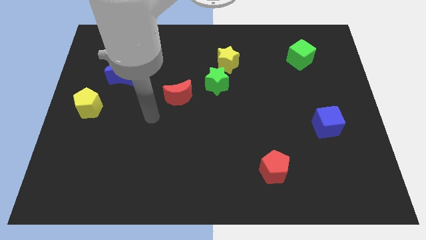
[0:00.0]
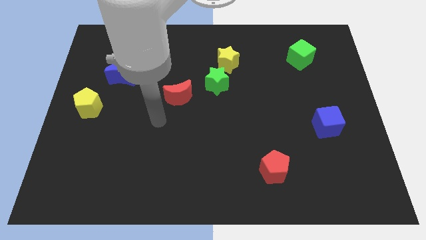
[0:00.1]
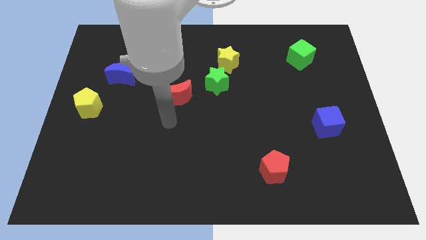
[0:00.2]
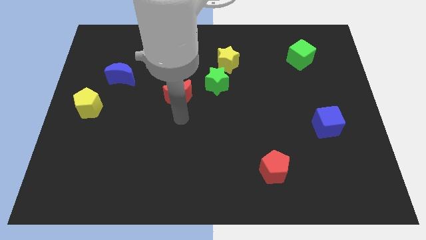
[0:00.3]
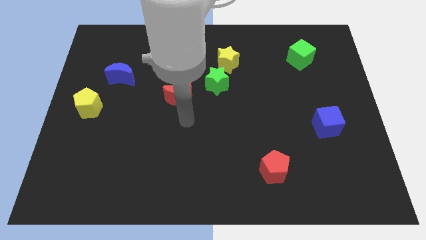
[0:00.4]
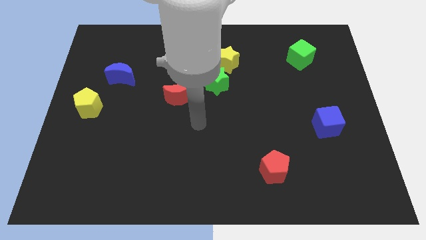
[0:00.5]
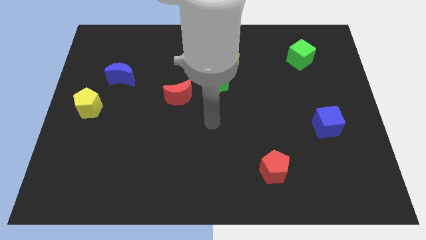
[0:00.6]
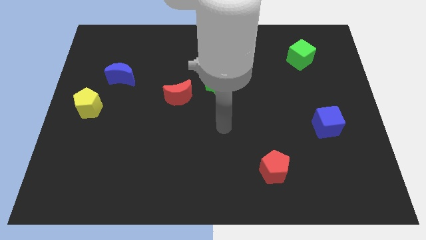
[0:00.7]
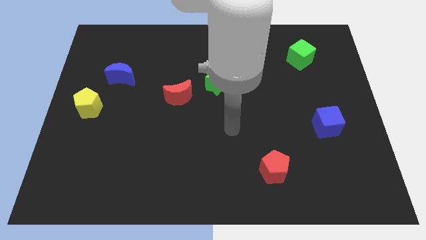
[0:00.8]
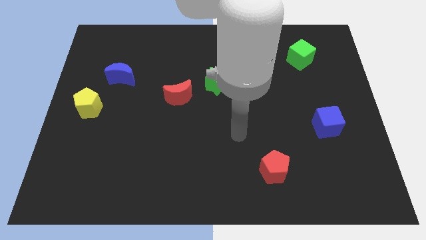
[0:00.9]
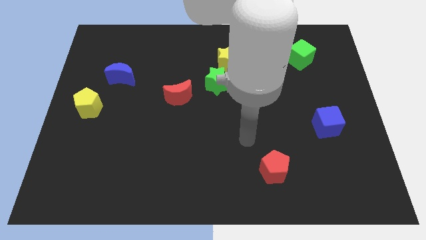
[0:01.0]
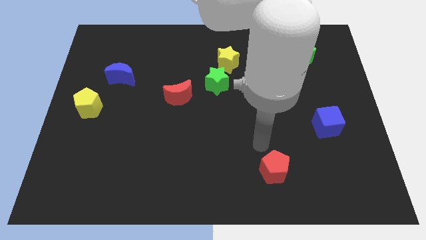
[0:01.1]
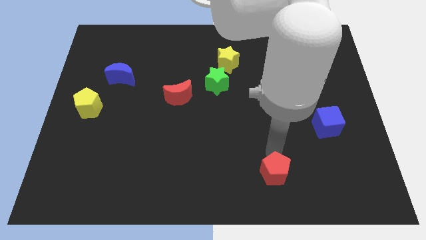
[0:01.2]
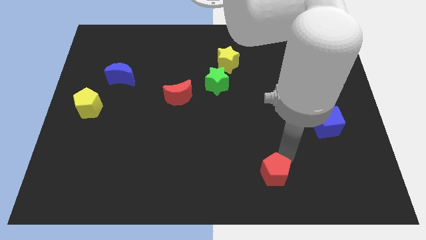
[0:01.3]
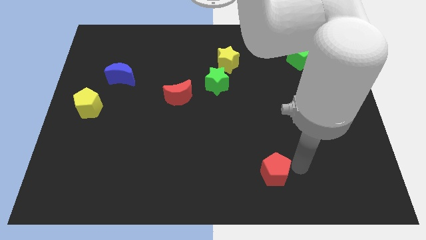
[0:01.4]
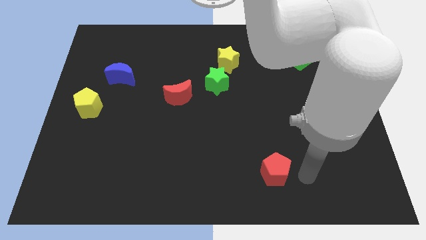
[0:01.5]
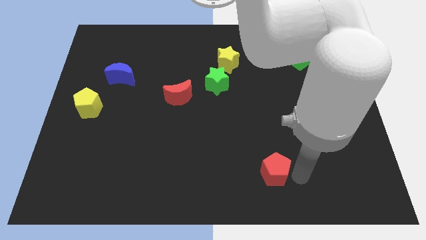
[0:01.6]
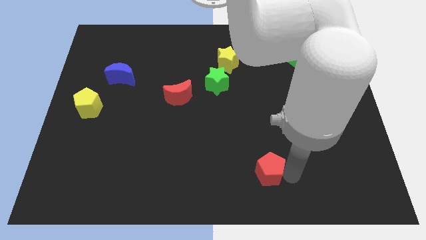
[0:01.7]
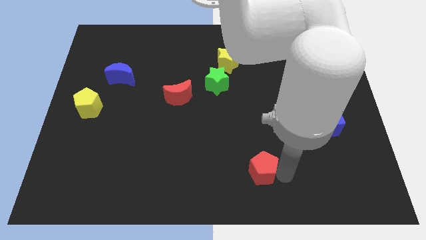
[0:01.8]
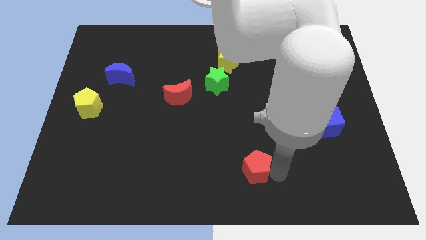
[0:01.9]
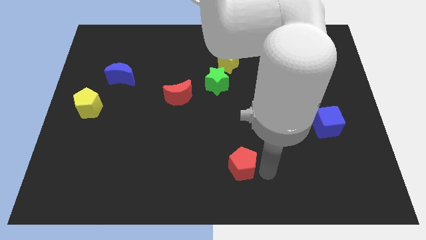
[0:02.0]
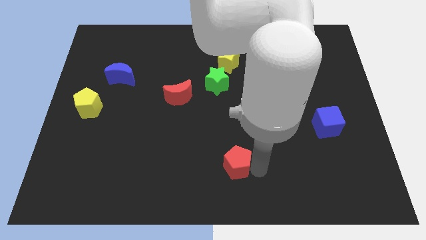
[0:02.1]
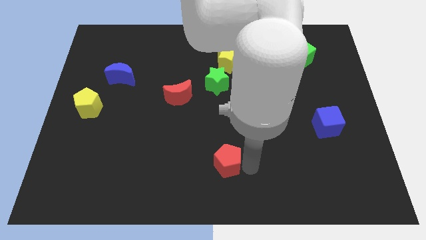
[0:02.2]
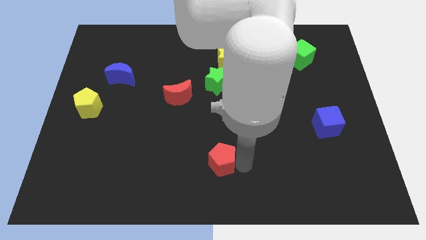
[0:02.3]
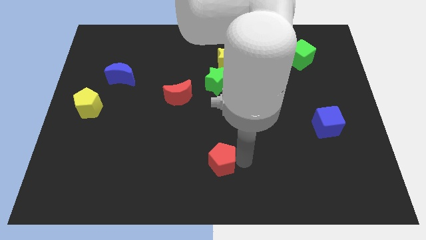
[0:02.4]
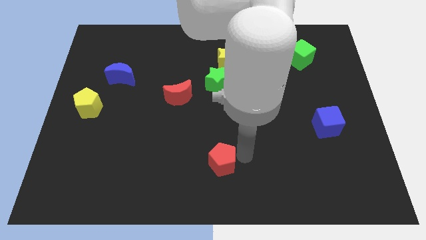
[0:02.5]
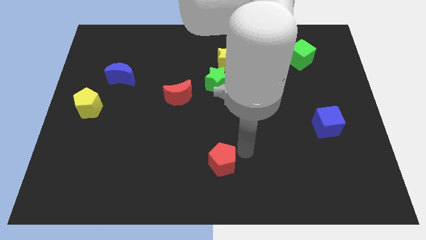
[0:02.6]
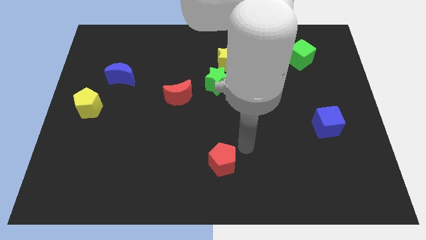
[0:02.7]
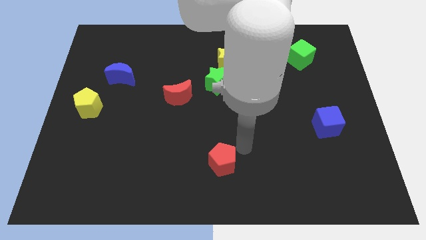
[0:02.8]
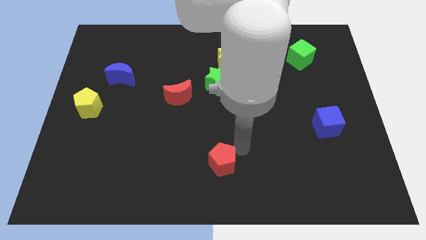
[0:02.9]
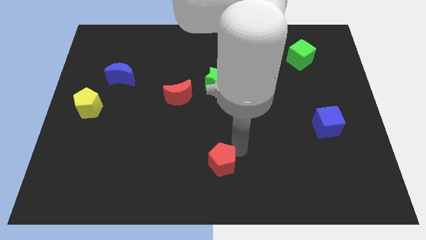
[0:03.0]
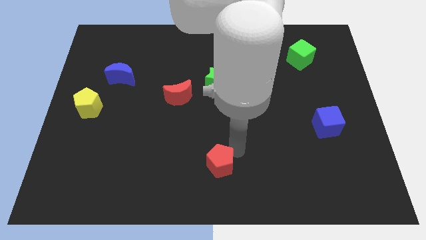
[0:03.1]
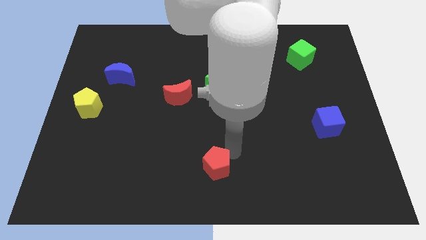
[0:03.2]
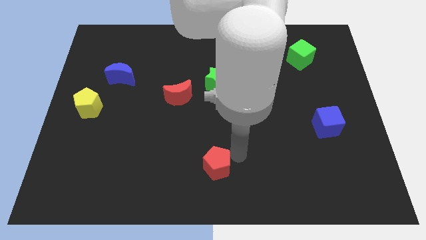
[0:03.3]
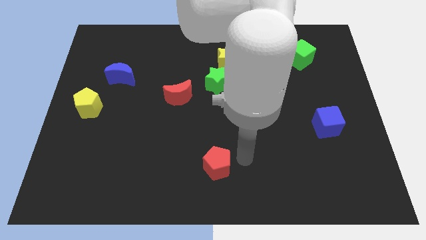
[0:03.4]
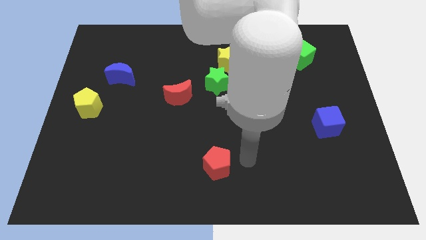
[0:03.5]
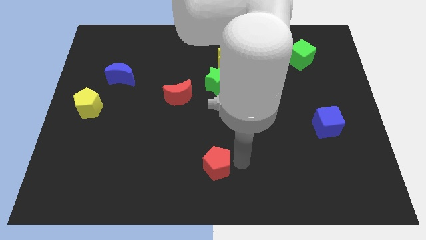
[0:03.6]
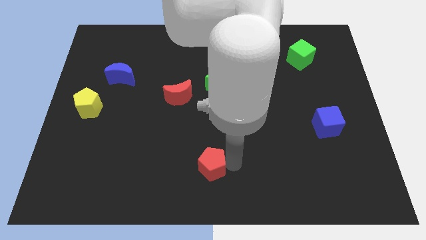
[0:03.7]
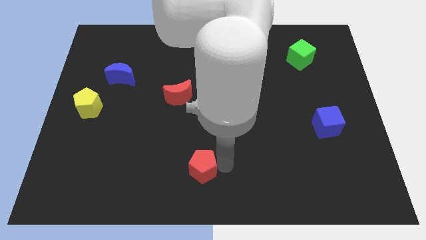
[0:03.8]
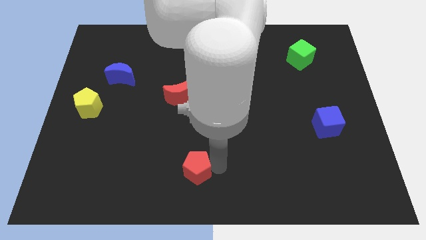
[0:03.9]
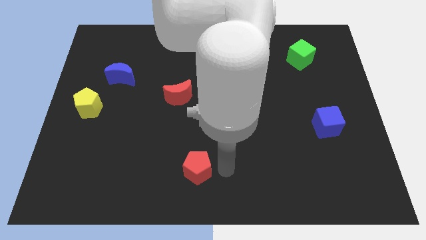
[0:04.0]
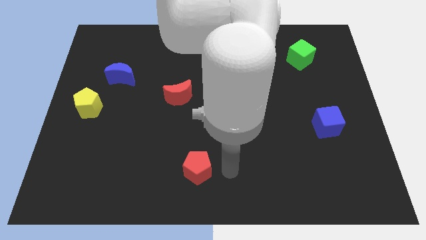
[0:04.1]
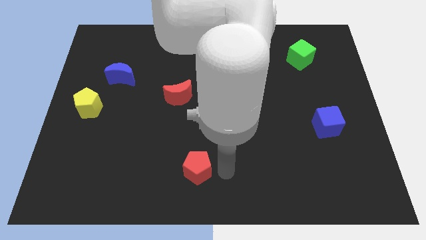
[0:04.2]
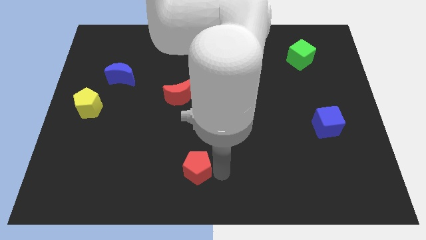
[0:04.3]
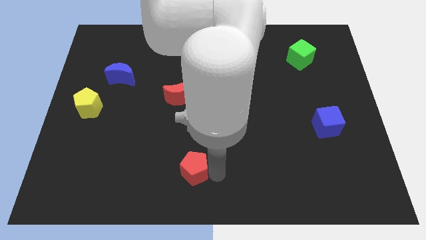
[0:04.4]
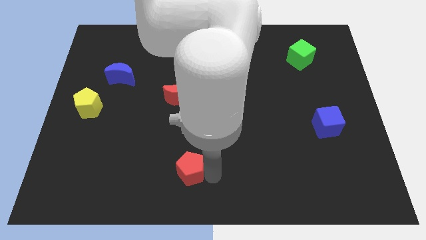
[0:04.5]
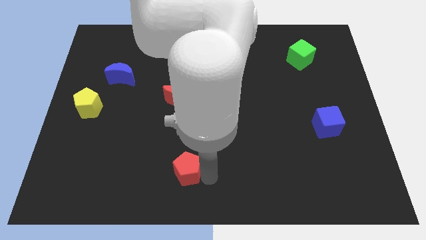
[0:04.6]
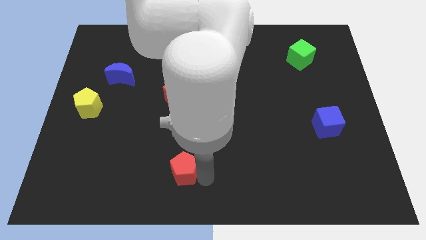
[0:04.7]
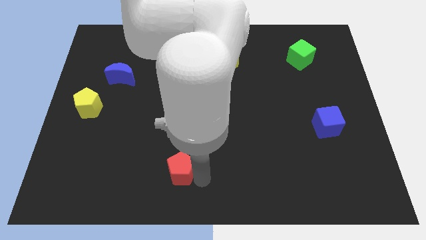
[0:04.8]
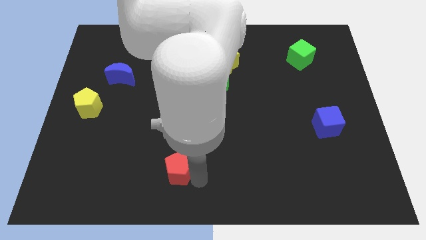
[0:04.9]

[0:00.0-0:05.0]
move the red pentagon left

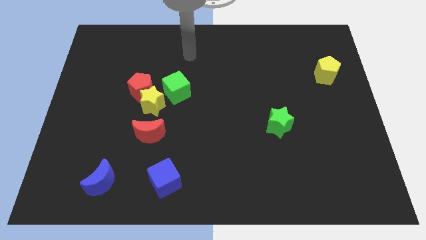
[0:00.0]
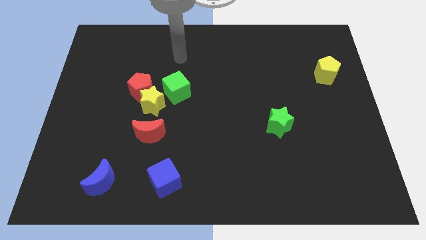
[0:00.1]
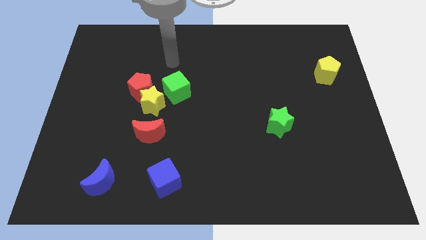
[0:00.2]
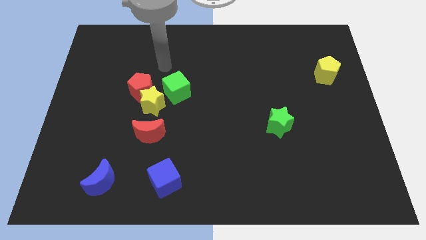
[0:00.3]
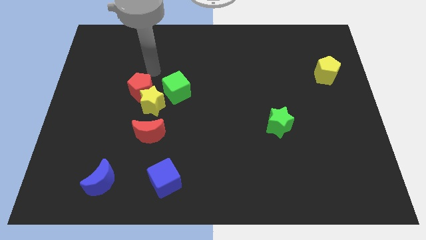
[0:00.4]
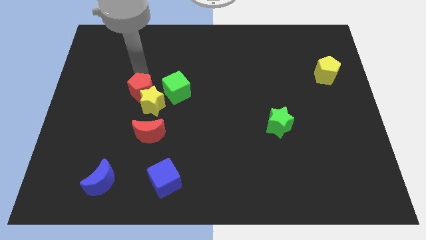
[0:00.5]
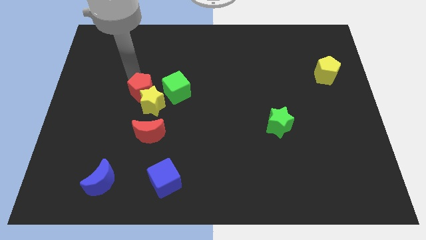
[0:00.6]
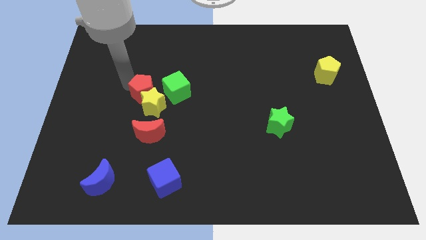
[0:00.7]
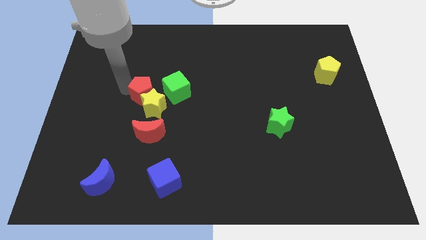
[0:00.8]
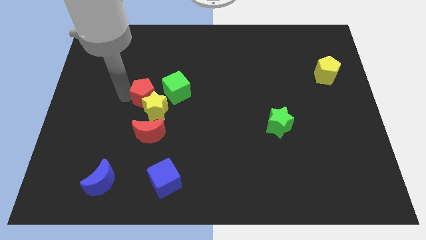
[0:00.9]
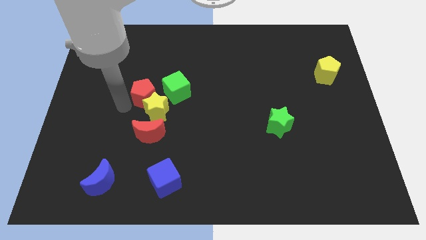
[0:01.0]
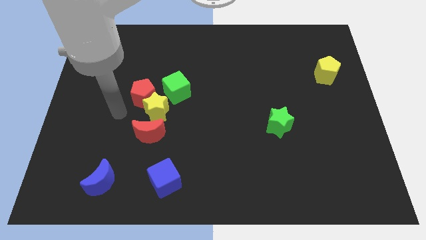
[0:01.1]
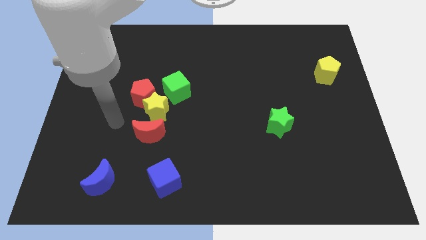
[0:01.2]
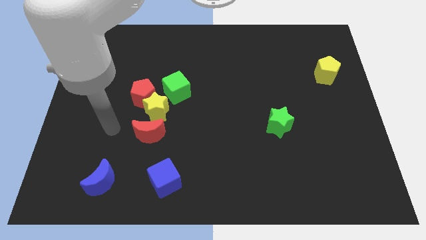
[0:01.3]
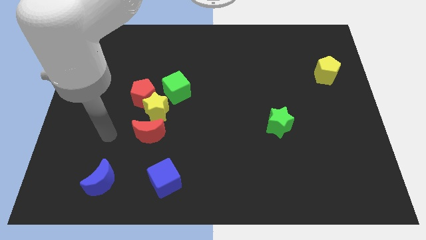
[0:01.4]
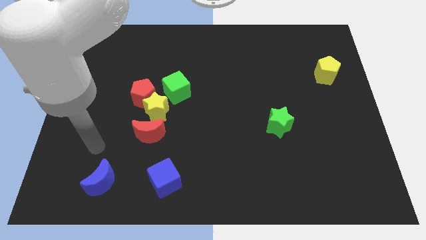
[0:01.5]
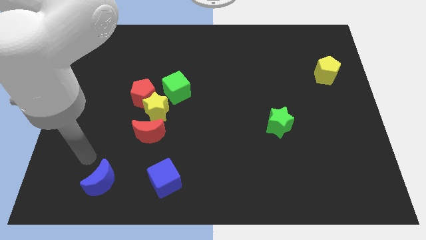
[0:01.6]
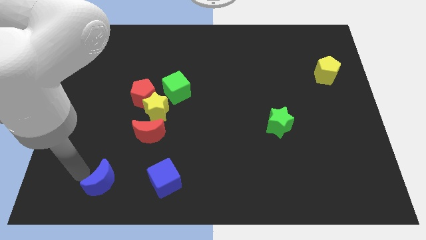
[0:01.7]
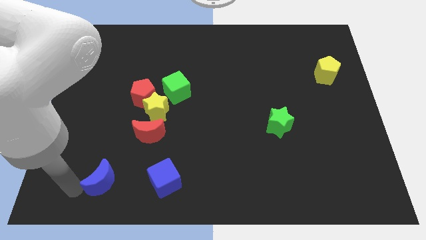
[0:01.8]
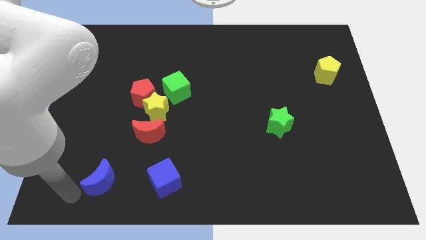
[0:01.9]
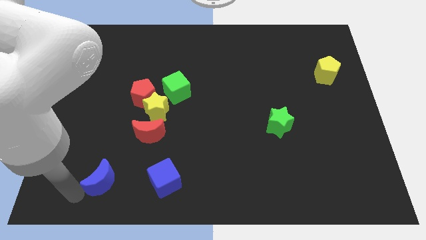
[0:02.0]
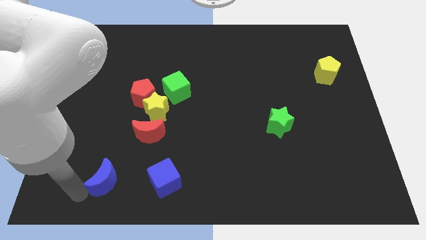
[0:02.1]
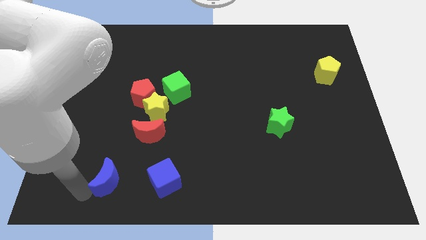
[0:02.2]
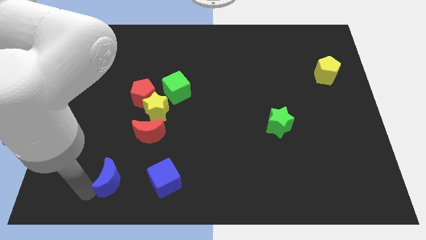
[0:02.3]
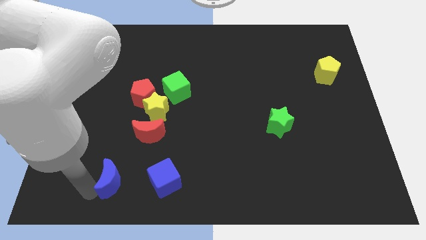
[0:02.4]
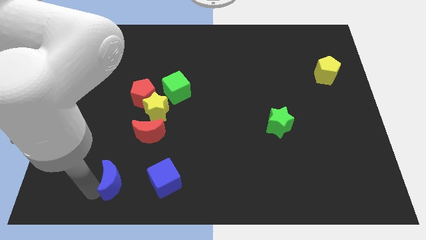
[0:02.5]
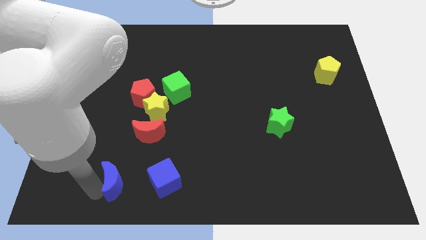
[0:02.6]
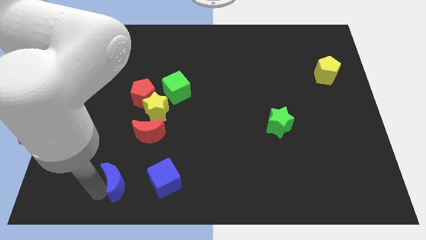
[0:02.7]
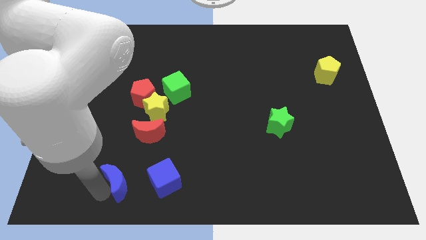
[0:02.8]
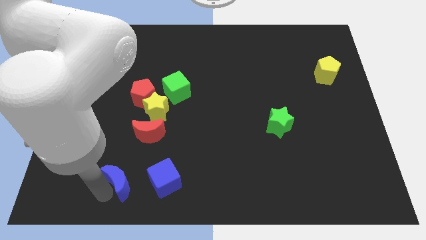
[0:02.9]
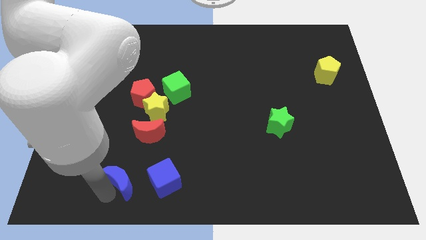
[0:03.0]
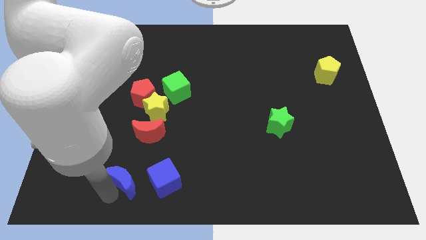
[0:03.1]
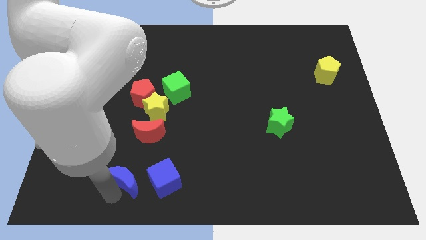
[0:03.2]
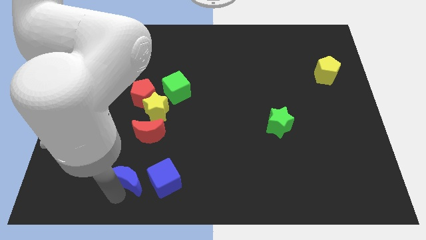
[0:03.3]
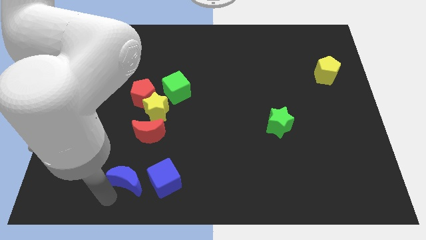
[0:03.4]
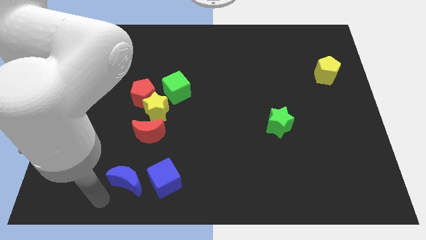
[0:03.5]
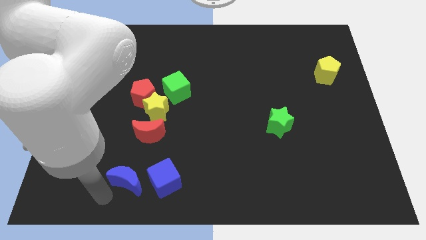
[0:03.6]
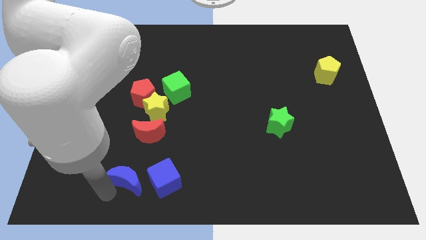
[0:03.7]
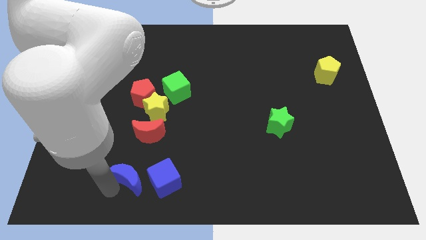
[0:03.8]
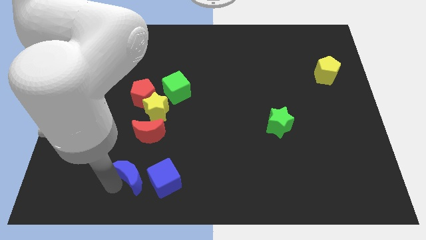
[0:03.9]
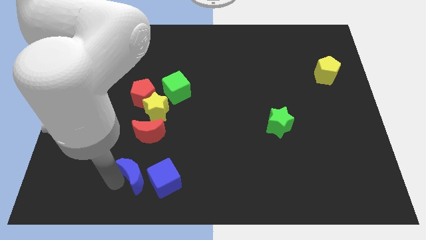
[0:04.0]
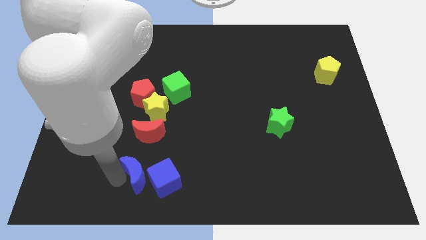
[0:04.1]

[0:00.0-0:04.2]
slide the blue moon right a bit
